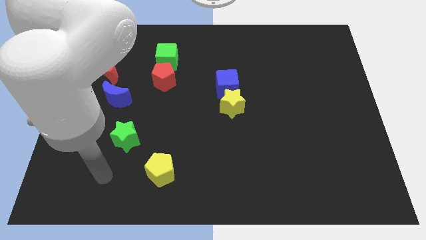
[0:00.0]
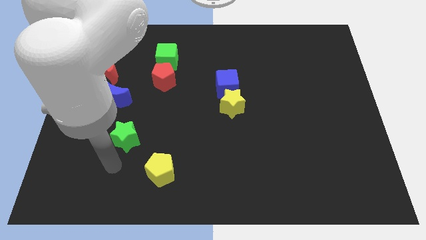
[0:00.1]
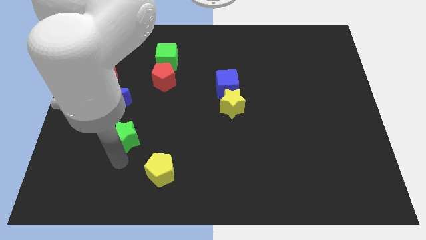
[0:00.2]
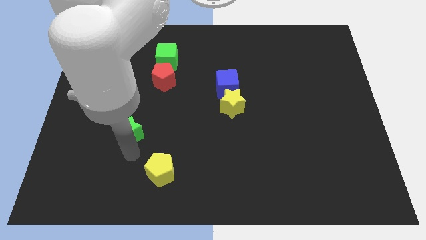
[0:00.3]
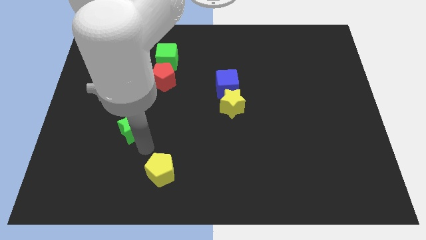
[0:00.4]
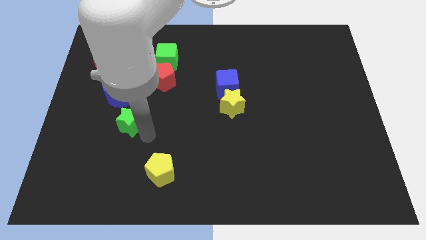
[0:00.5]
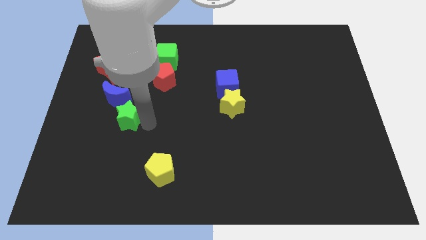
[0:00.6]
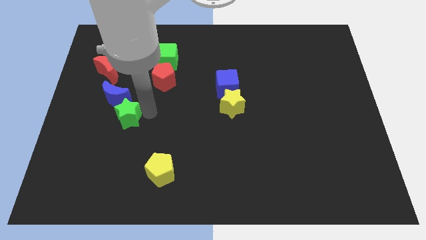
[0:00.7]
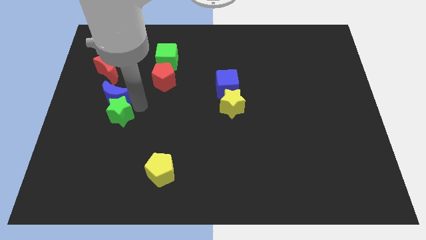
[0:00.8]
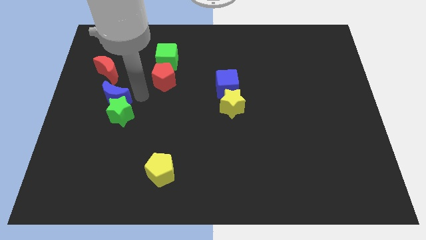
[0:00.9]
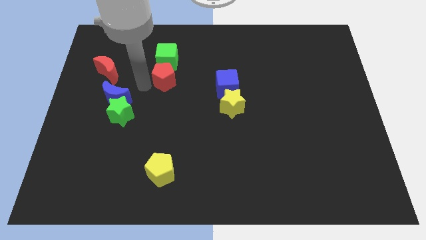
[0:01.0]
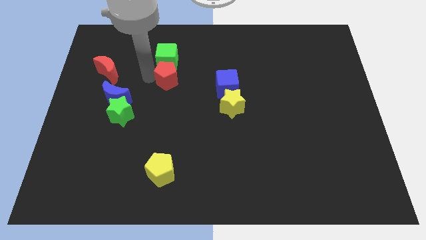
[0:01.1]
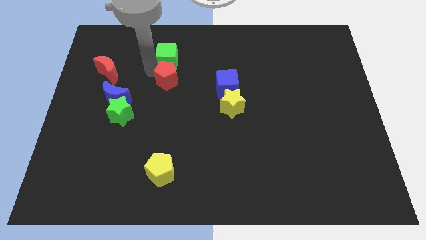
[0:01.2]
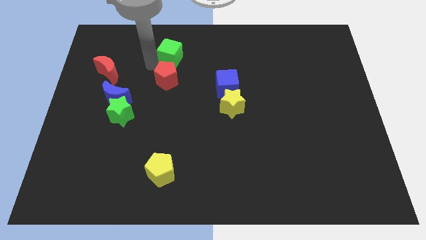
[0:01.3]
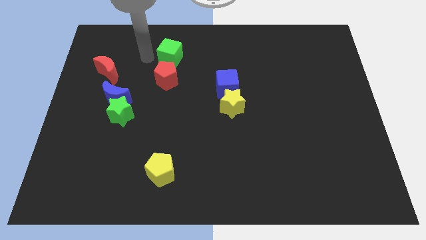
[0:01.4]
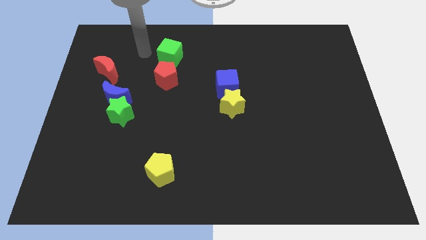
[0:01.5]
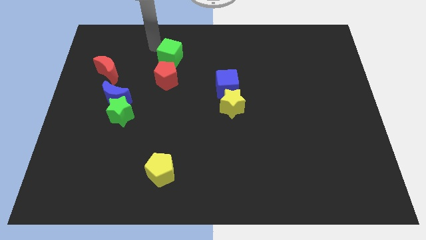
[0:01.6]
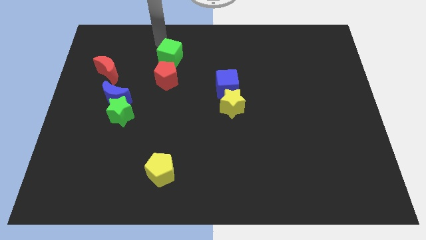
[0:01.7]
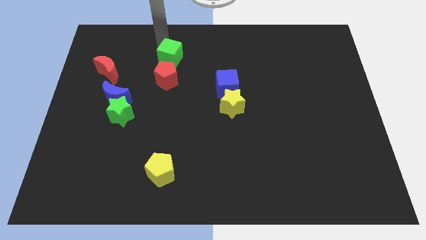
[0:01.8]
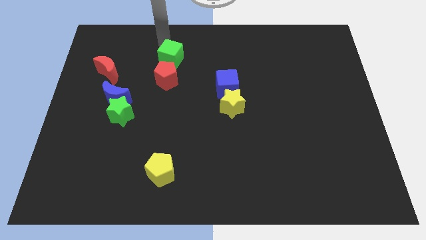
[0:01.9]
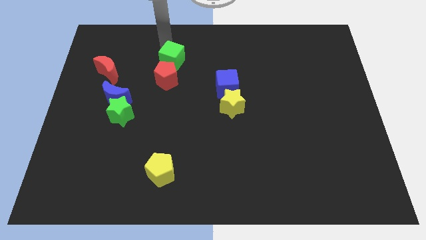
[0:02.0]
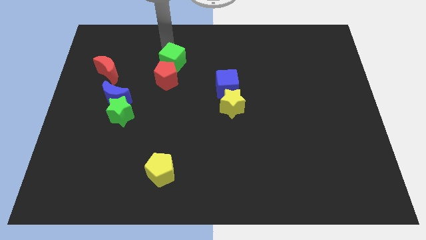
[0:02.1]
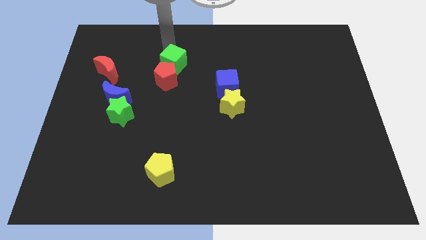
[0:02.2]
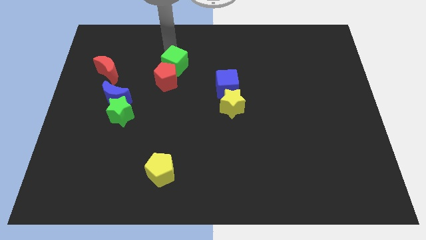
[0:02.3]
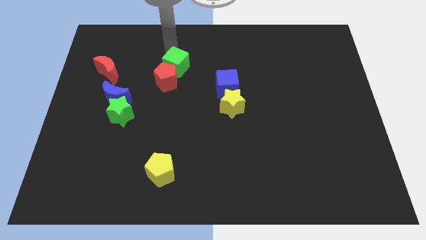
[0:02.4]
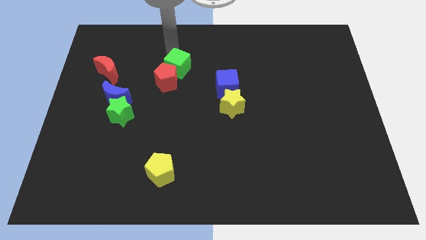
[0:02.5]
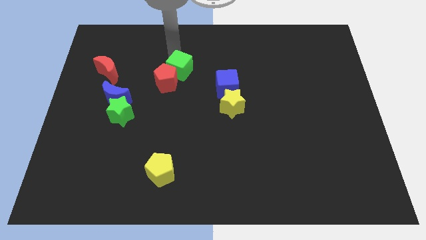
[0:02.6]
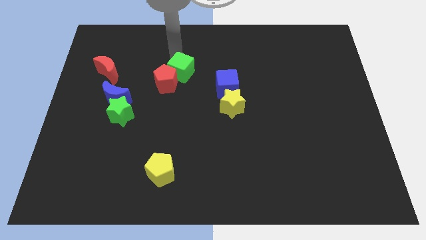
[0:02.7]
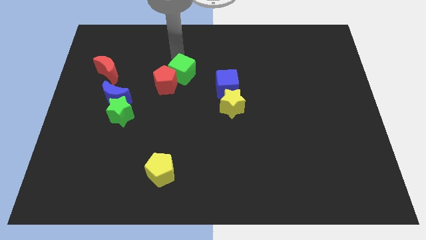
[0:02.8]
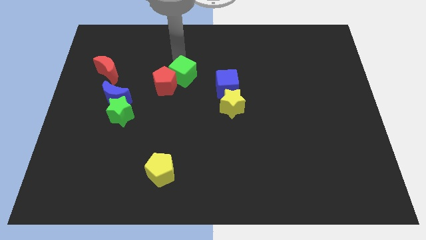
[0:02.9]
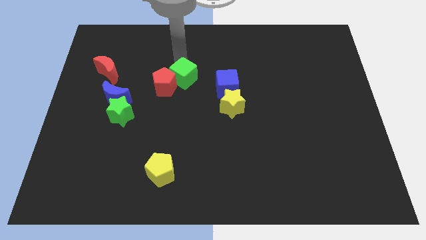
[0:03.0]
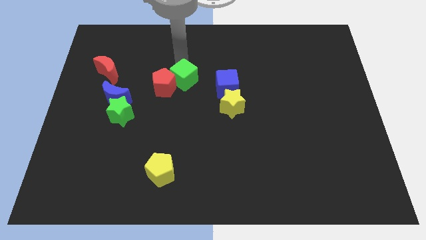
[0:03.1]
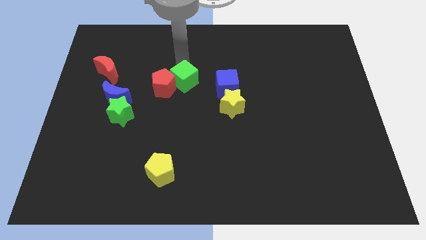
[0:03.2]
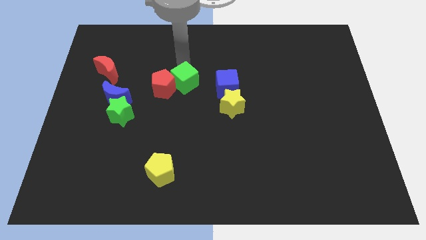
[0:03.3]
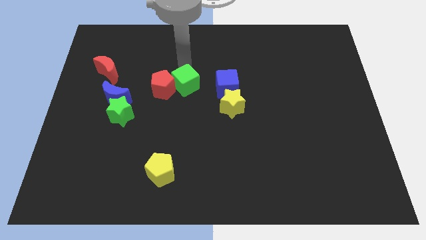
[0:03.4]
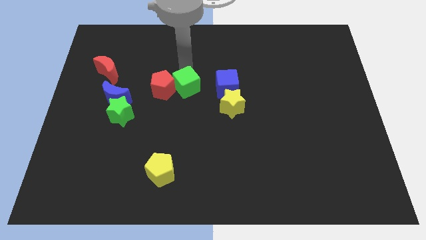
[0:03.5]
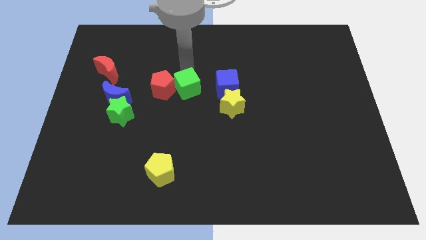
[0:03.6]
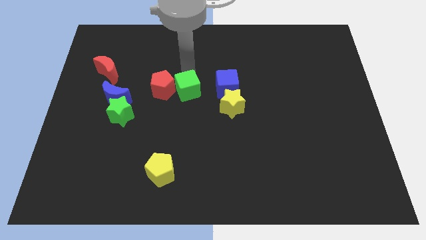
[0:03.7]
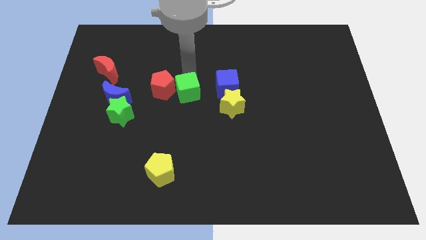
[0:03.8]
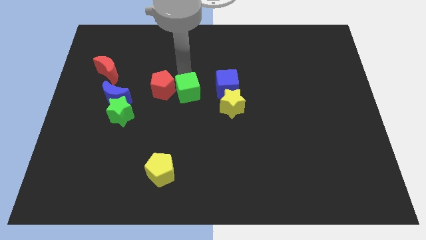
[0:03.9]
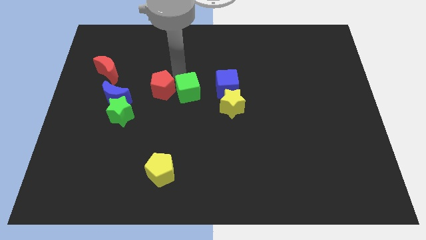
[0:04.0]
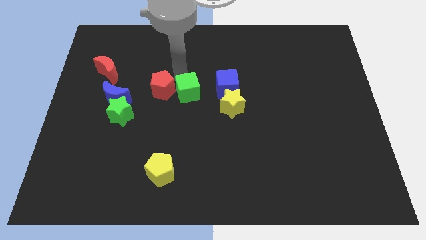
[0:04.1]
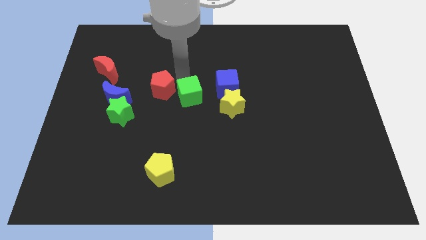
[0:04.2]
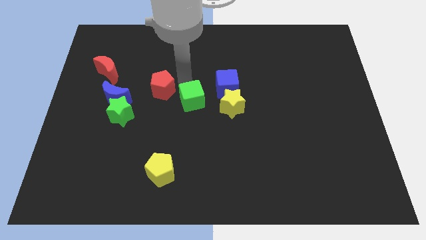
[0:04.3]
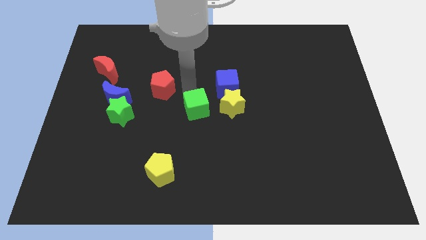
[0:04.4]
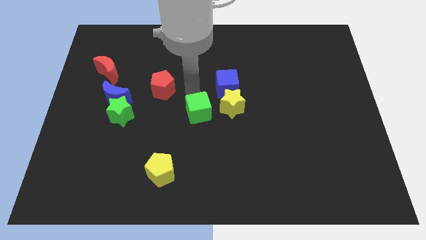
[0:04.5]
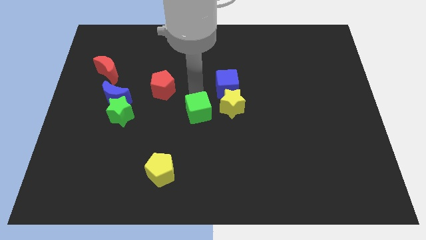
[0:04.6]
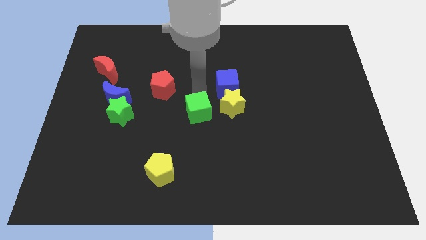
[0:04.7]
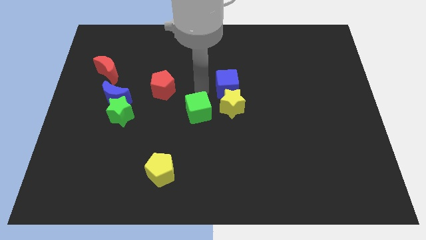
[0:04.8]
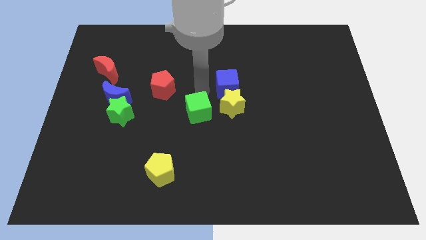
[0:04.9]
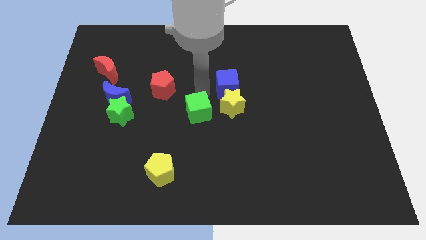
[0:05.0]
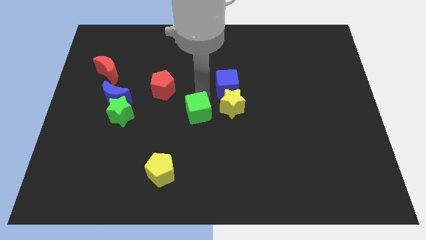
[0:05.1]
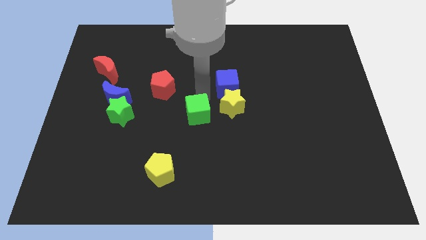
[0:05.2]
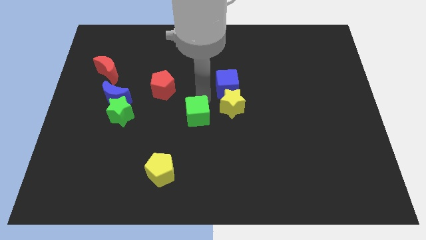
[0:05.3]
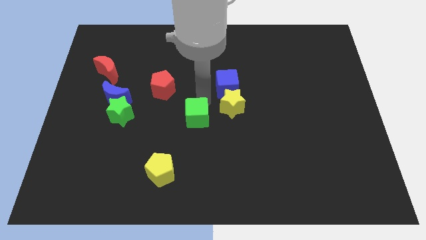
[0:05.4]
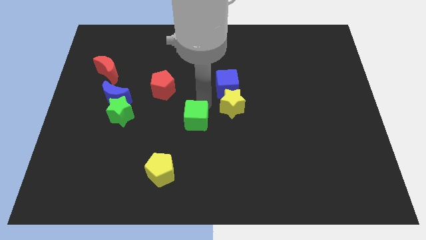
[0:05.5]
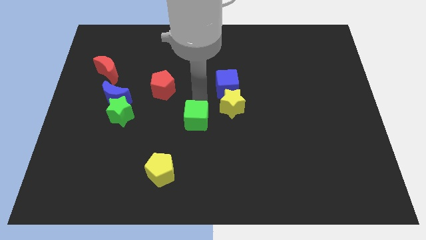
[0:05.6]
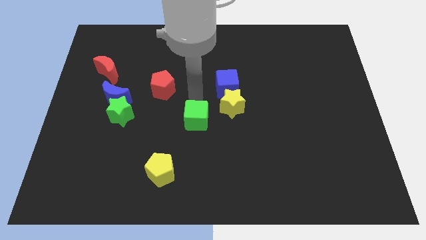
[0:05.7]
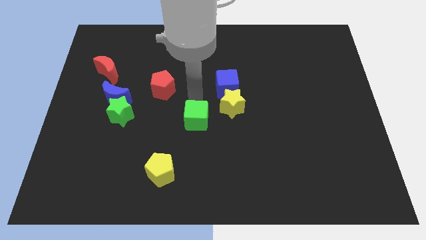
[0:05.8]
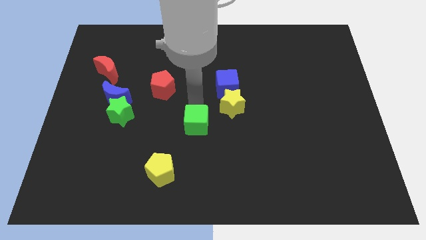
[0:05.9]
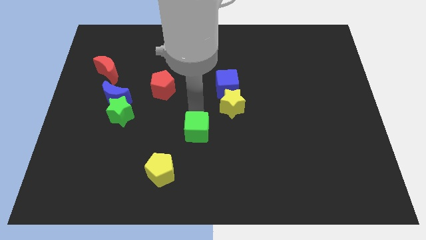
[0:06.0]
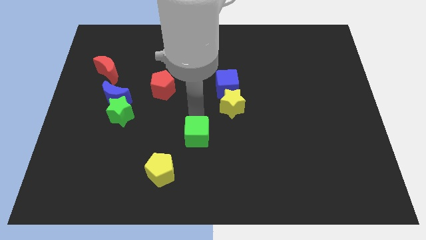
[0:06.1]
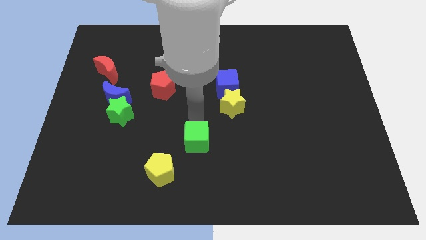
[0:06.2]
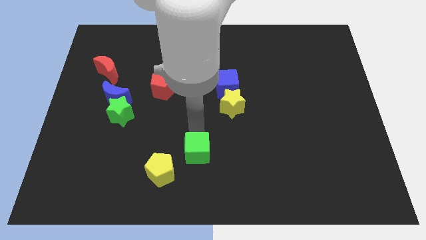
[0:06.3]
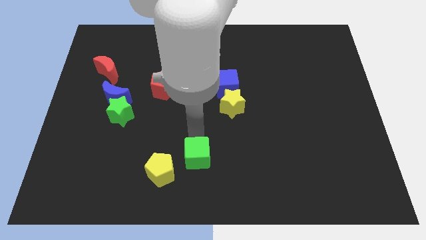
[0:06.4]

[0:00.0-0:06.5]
slide the green cube to the bottom side

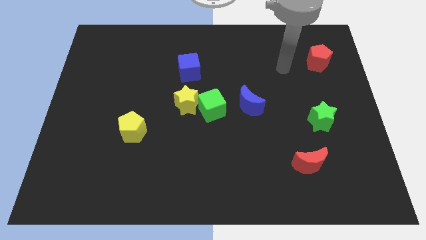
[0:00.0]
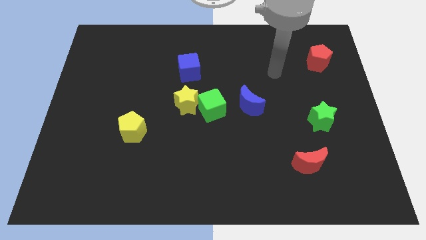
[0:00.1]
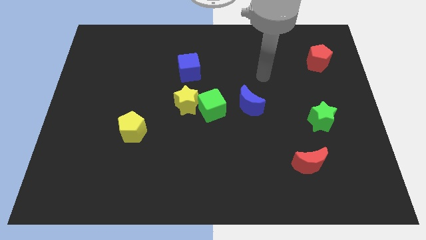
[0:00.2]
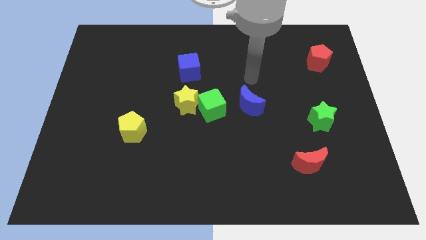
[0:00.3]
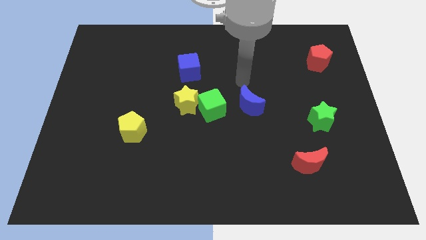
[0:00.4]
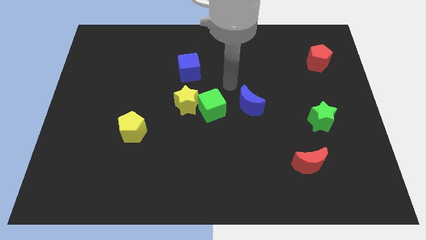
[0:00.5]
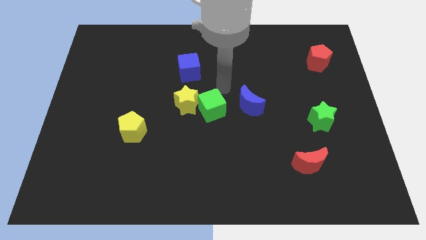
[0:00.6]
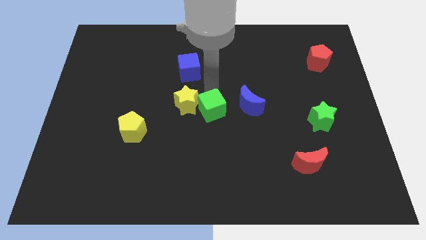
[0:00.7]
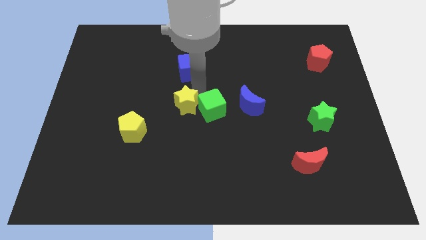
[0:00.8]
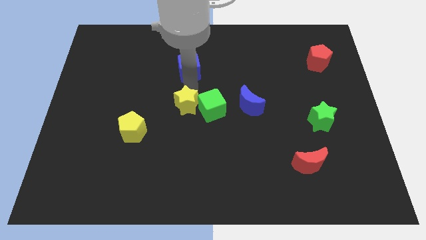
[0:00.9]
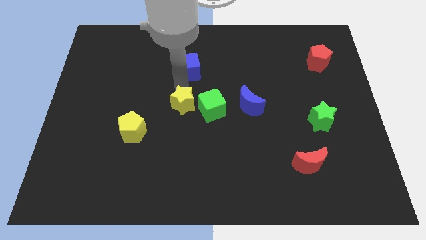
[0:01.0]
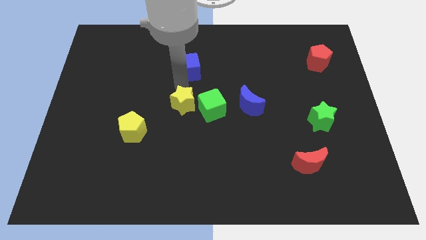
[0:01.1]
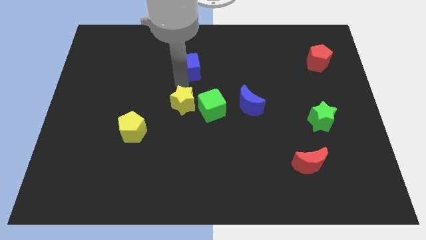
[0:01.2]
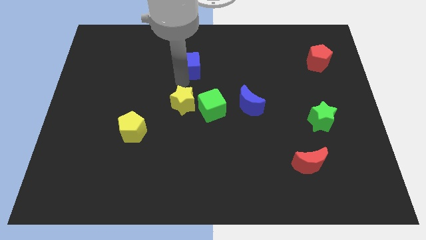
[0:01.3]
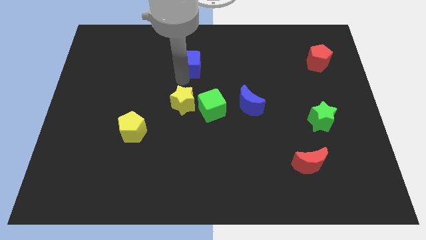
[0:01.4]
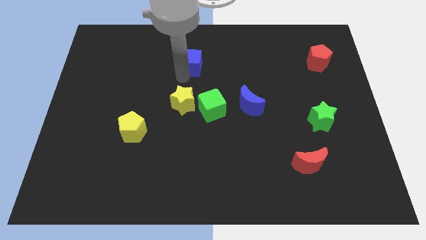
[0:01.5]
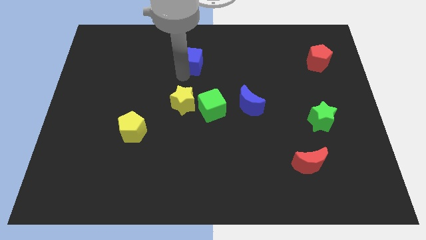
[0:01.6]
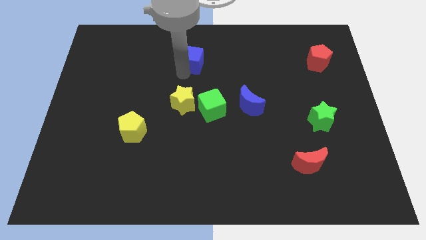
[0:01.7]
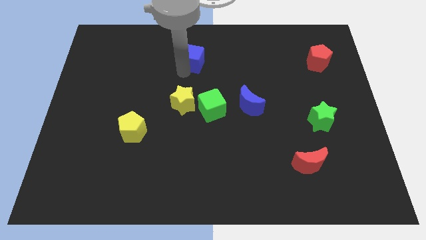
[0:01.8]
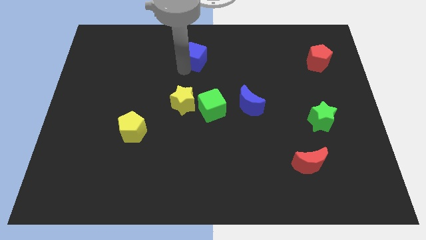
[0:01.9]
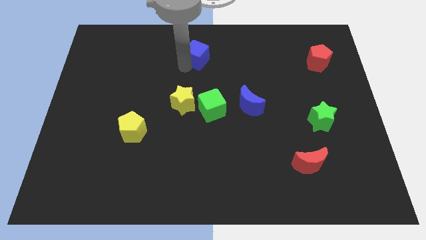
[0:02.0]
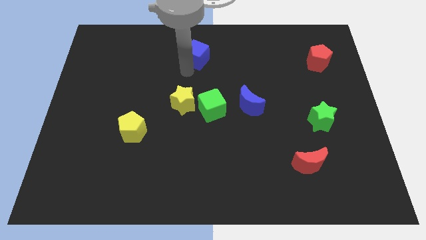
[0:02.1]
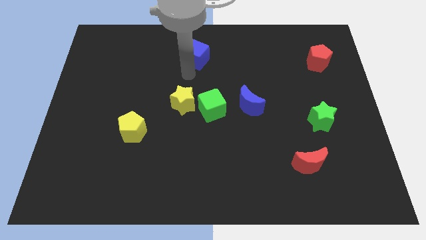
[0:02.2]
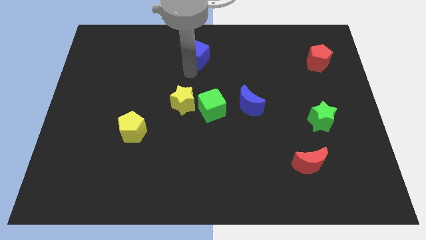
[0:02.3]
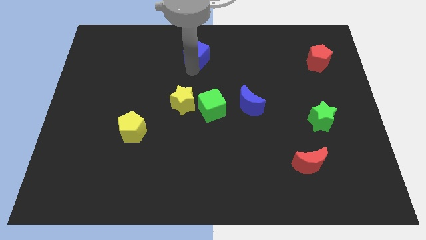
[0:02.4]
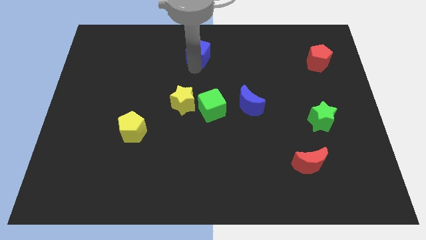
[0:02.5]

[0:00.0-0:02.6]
push the blue cube to the towards your base
